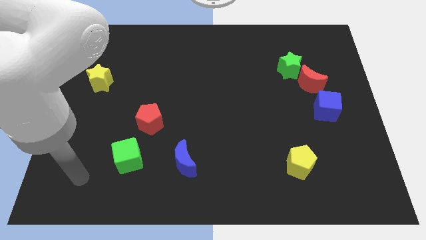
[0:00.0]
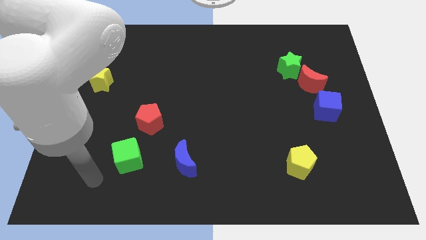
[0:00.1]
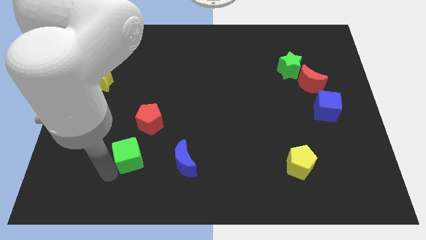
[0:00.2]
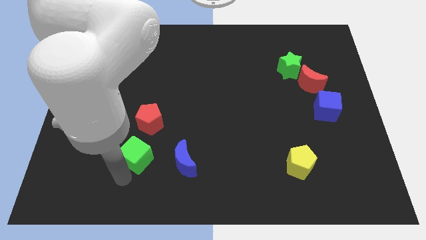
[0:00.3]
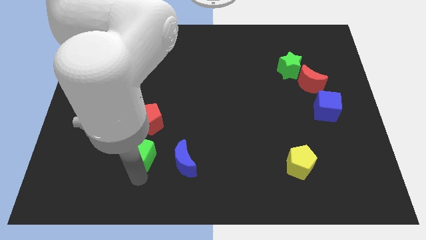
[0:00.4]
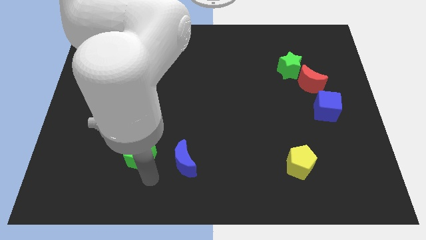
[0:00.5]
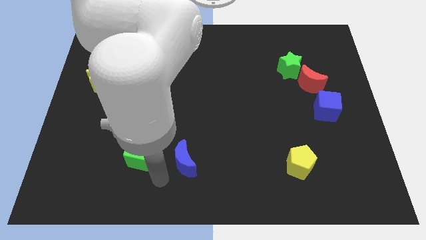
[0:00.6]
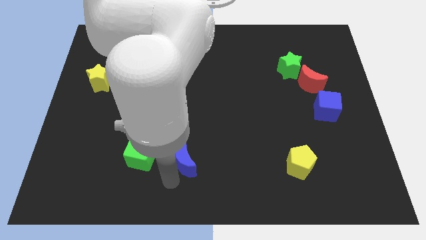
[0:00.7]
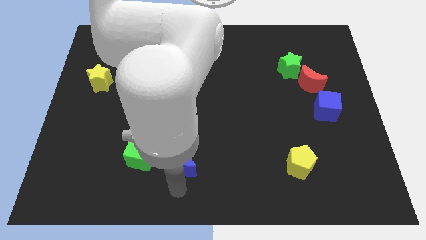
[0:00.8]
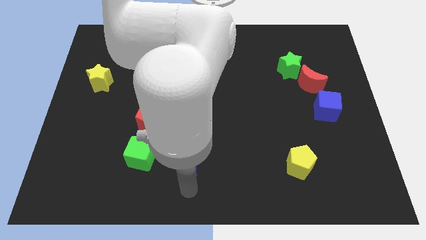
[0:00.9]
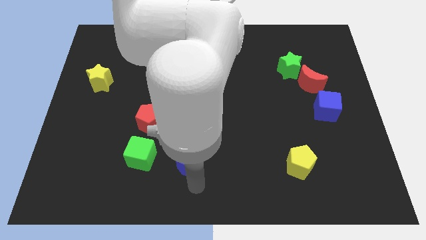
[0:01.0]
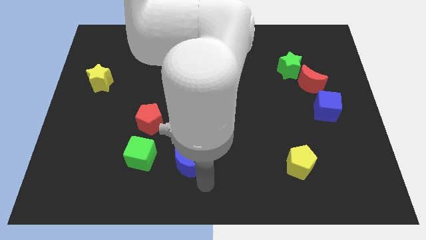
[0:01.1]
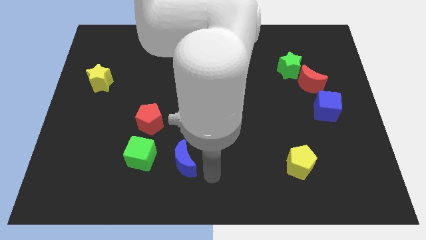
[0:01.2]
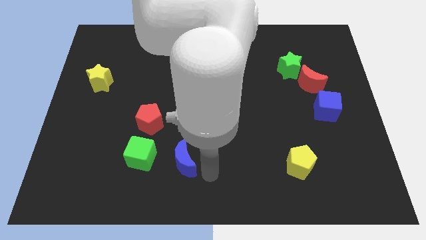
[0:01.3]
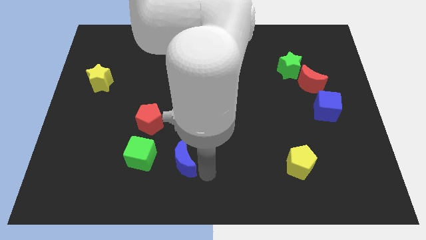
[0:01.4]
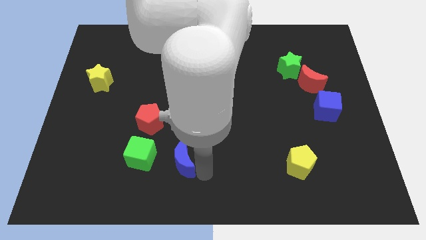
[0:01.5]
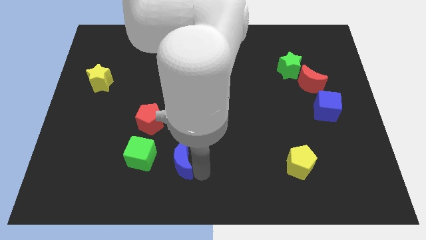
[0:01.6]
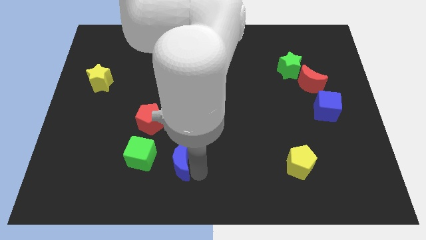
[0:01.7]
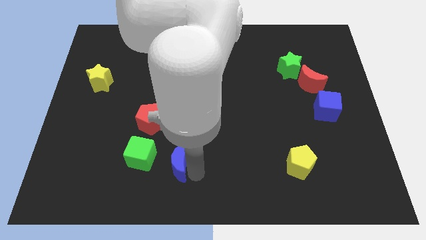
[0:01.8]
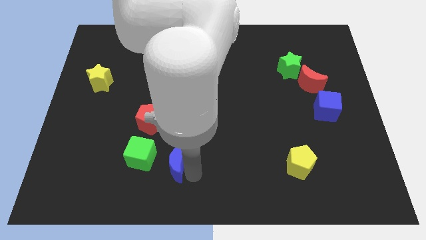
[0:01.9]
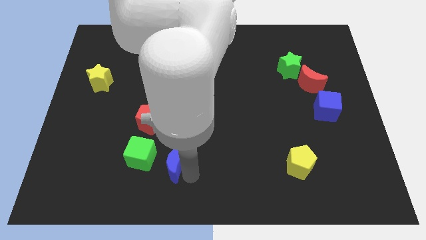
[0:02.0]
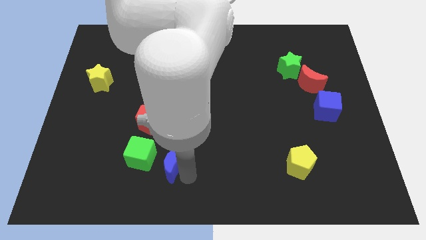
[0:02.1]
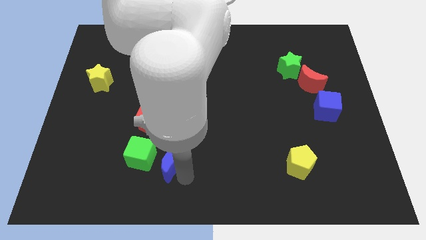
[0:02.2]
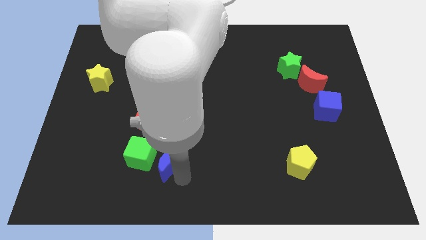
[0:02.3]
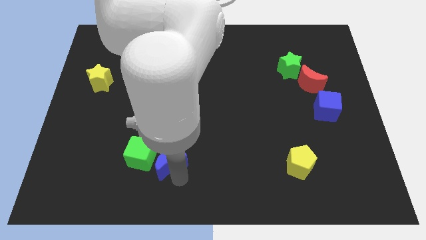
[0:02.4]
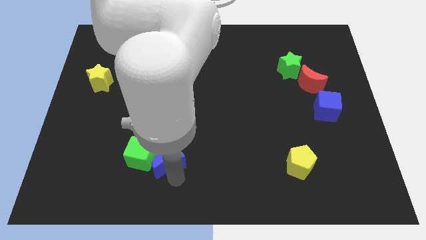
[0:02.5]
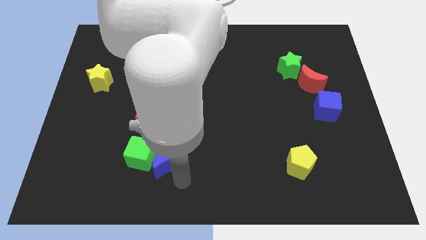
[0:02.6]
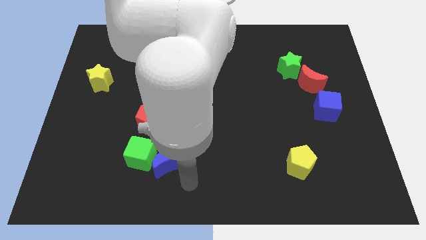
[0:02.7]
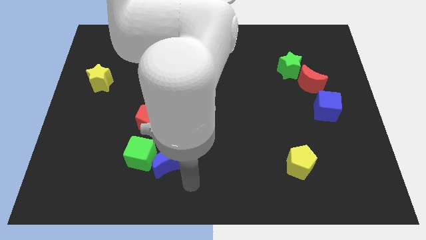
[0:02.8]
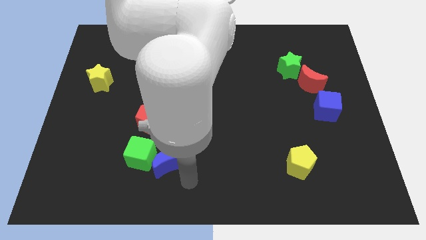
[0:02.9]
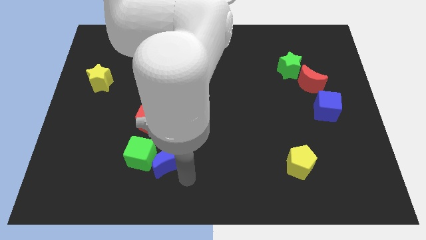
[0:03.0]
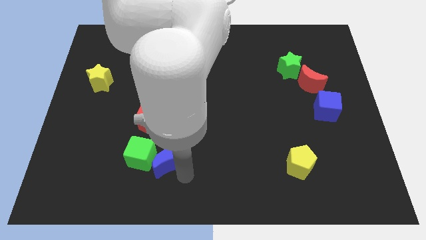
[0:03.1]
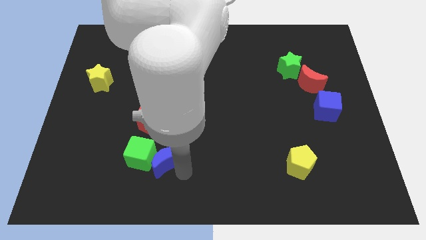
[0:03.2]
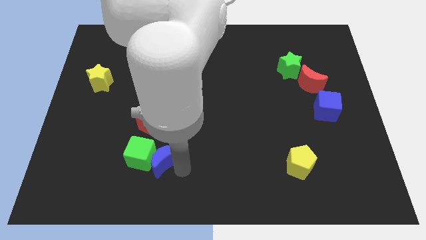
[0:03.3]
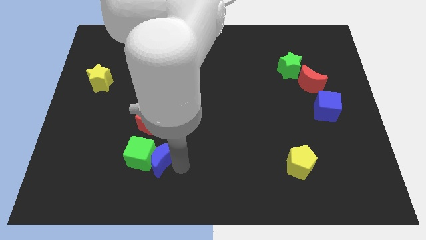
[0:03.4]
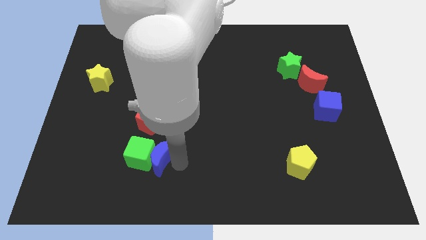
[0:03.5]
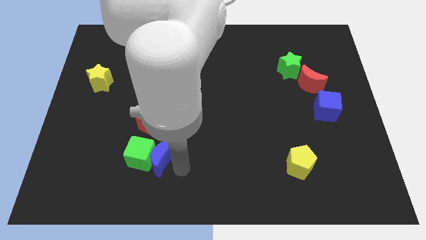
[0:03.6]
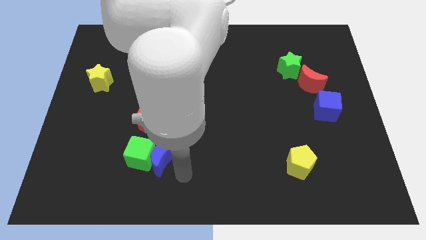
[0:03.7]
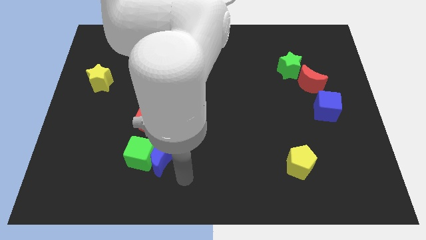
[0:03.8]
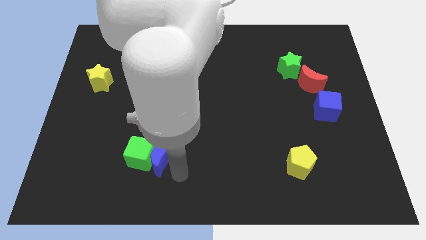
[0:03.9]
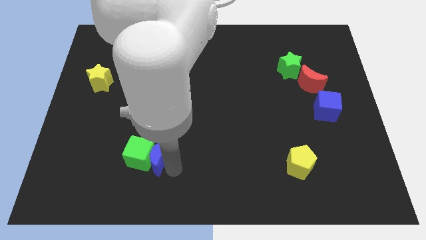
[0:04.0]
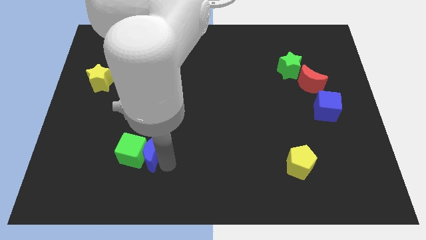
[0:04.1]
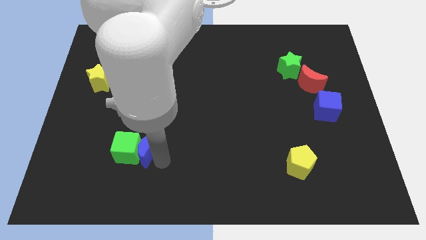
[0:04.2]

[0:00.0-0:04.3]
slightly slide the blue moon diagonally upwards and to the left

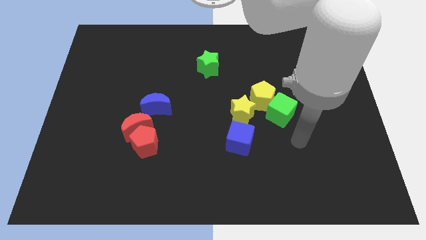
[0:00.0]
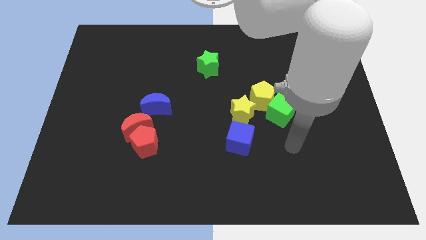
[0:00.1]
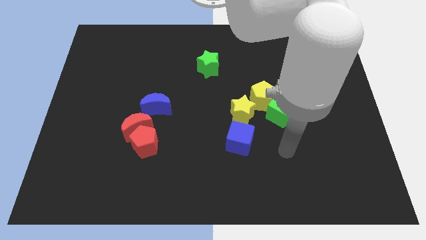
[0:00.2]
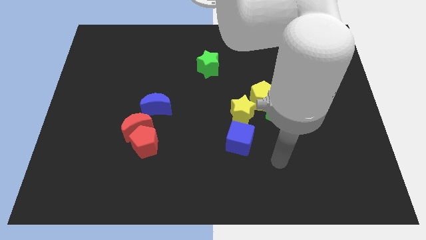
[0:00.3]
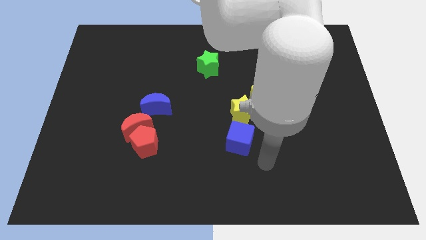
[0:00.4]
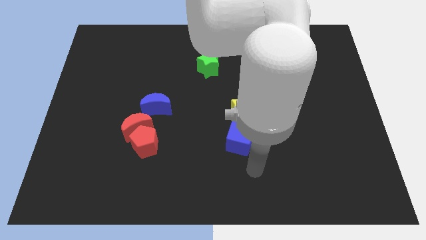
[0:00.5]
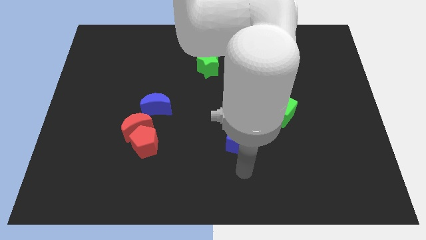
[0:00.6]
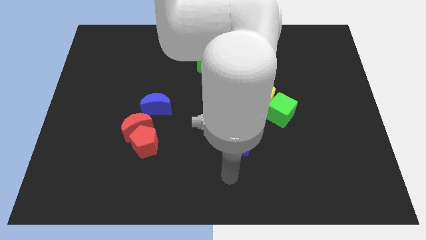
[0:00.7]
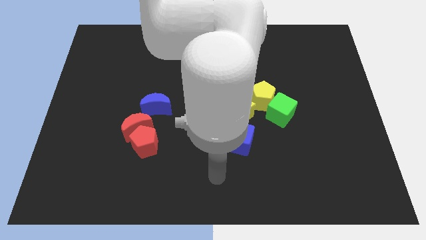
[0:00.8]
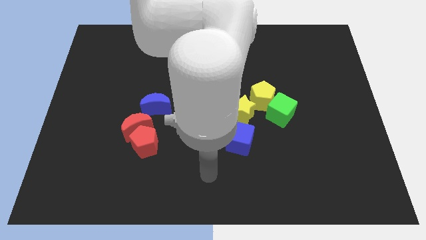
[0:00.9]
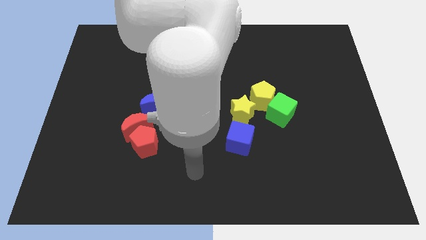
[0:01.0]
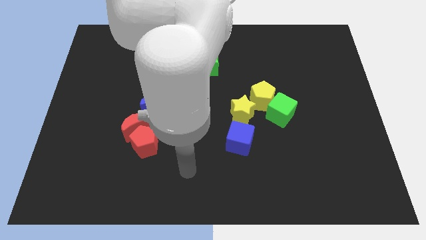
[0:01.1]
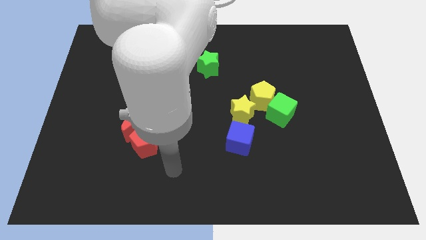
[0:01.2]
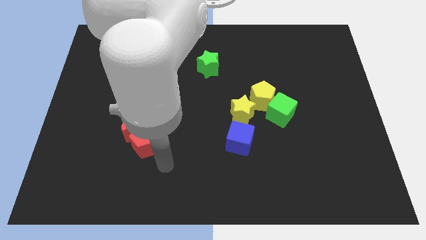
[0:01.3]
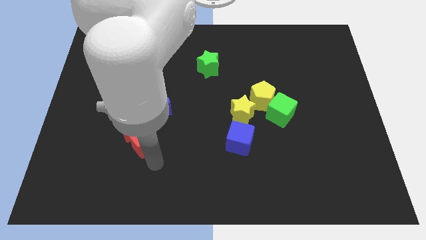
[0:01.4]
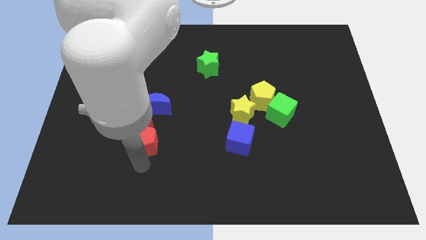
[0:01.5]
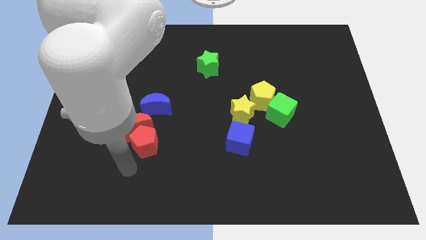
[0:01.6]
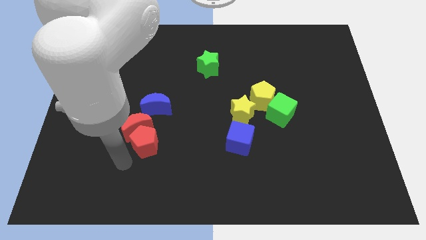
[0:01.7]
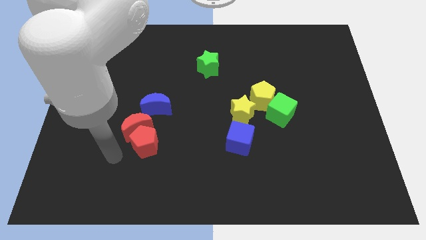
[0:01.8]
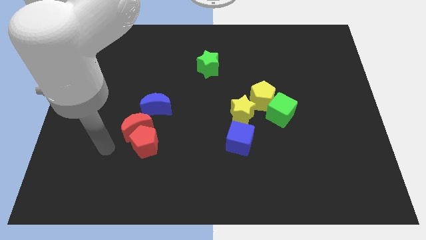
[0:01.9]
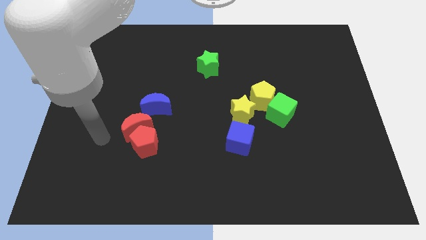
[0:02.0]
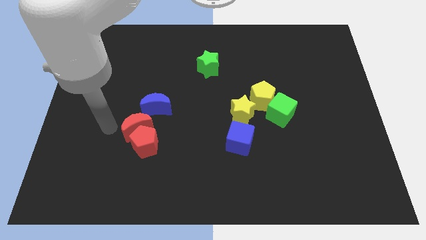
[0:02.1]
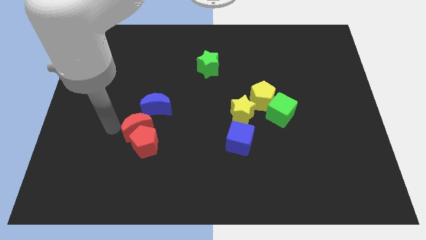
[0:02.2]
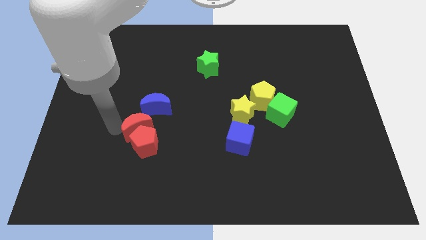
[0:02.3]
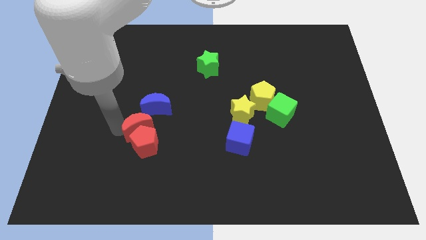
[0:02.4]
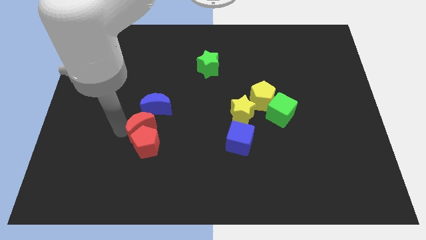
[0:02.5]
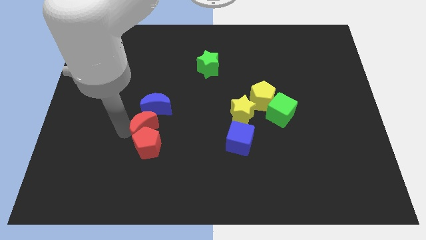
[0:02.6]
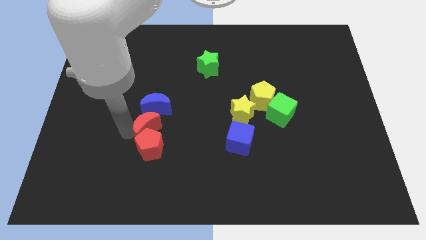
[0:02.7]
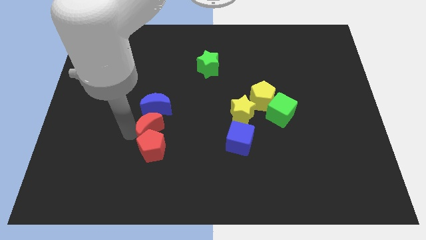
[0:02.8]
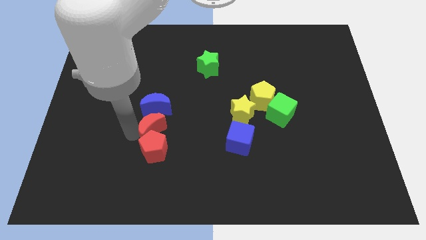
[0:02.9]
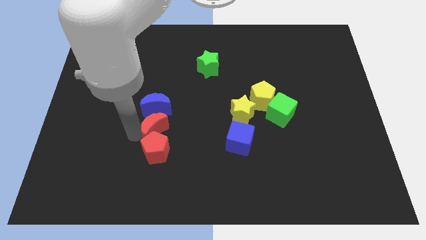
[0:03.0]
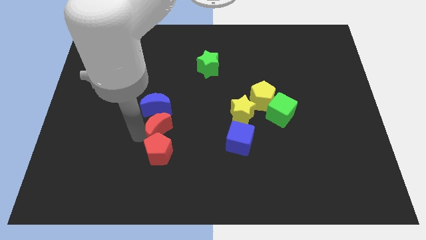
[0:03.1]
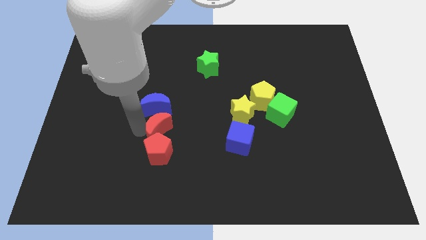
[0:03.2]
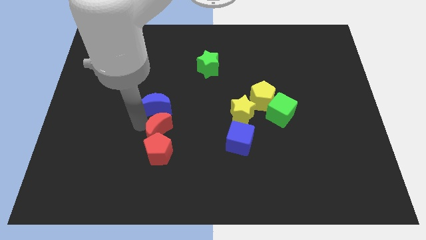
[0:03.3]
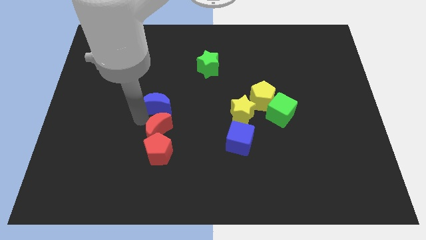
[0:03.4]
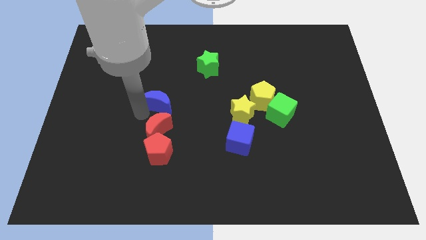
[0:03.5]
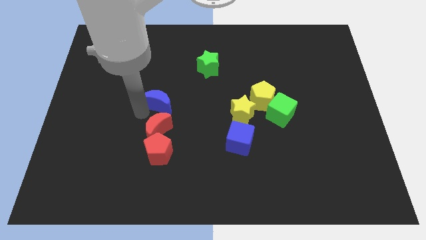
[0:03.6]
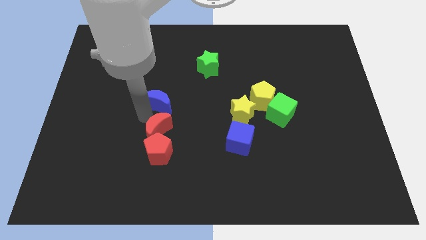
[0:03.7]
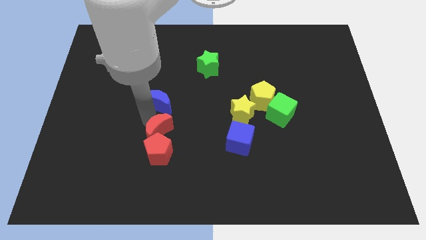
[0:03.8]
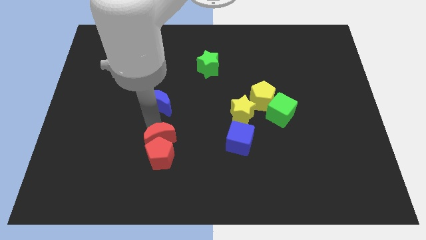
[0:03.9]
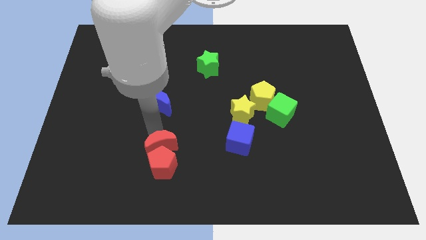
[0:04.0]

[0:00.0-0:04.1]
slide the red moon a little downwards and to the right

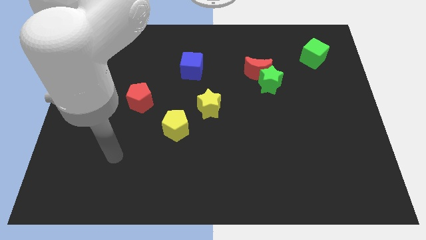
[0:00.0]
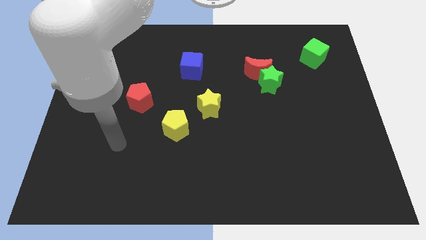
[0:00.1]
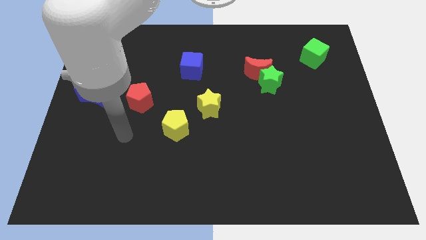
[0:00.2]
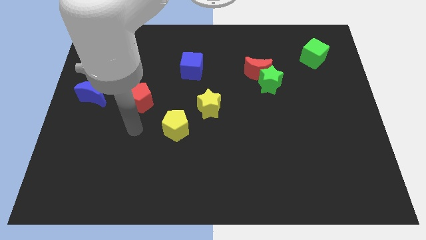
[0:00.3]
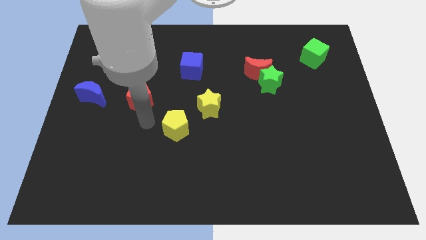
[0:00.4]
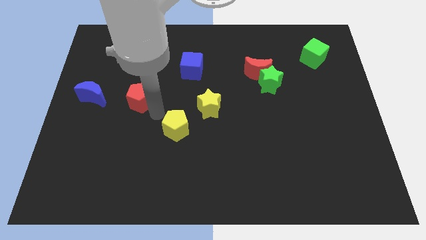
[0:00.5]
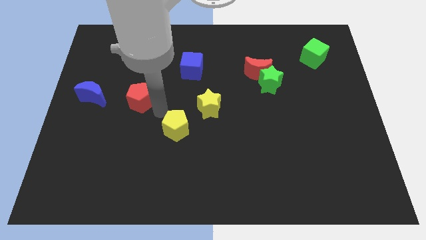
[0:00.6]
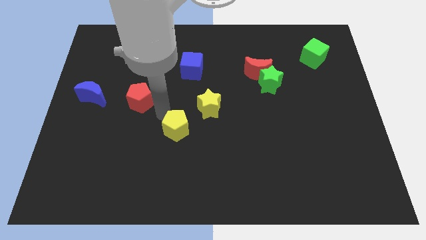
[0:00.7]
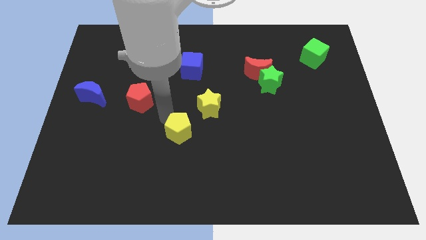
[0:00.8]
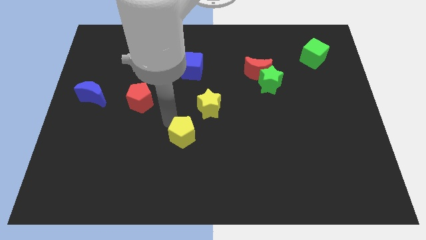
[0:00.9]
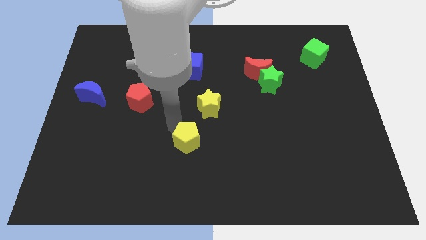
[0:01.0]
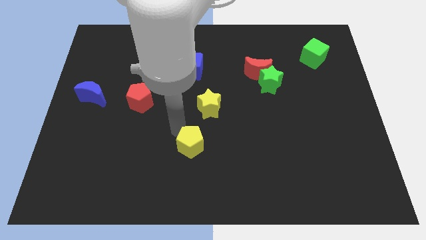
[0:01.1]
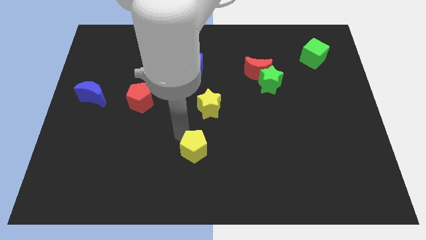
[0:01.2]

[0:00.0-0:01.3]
slide the yellow pentagon downwards and right diagonally a bit
